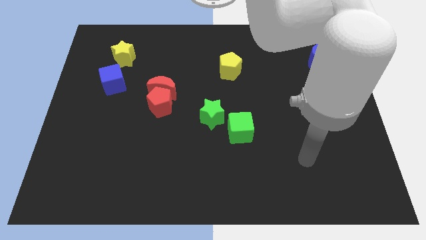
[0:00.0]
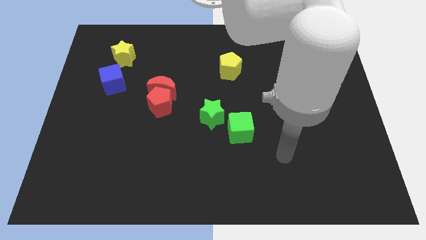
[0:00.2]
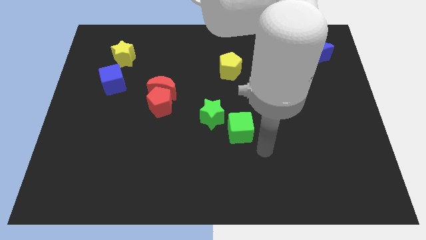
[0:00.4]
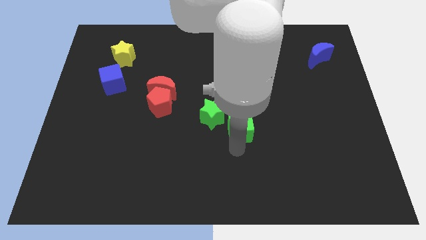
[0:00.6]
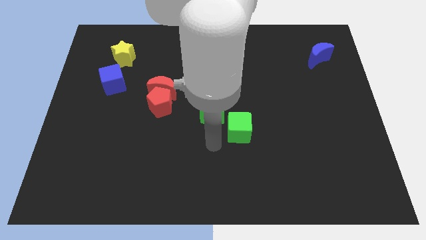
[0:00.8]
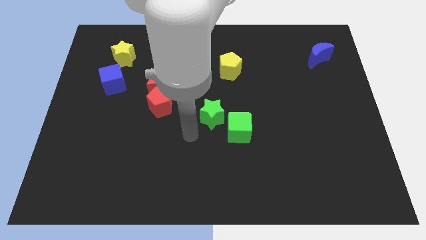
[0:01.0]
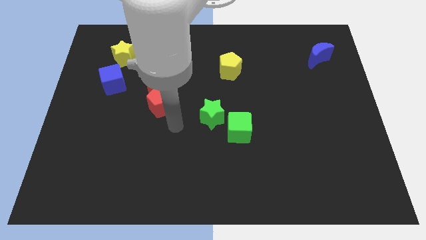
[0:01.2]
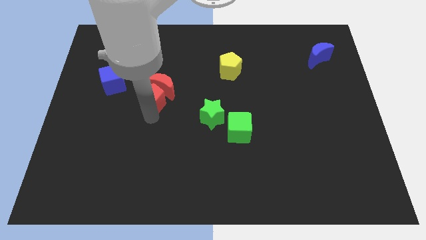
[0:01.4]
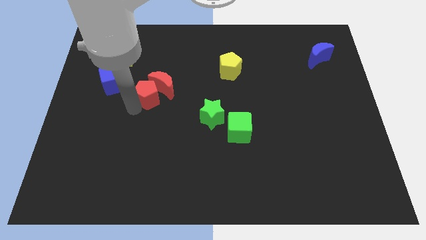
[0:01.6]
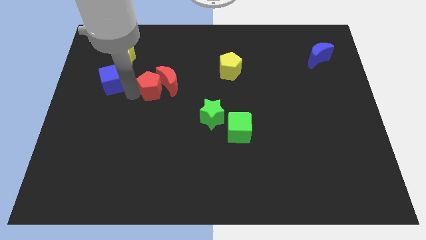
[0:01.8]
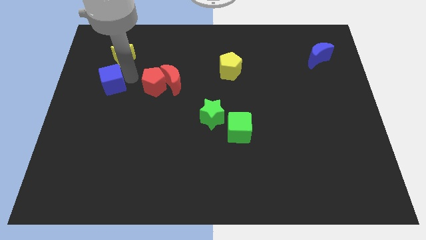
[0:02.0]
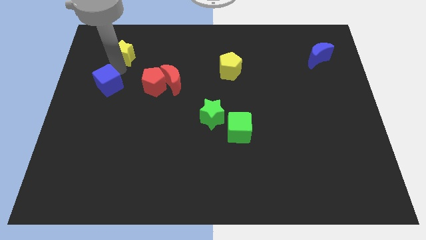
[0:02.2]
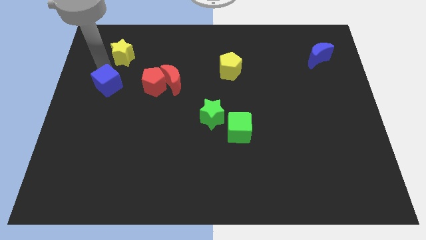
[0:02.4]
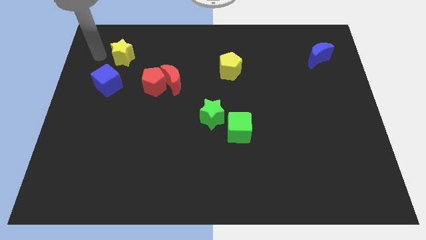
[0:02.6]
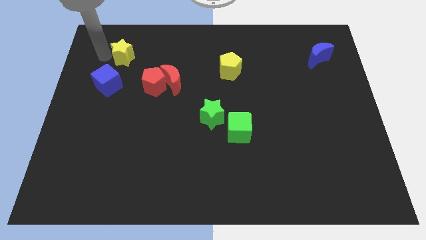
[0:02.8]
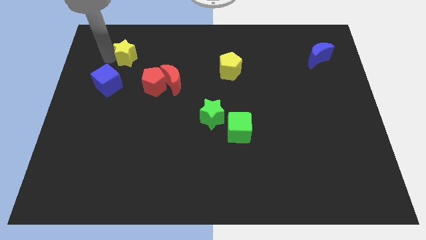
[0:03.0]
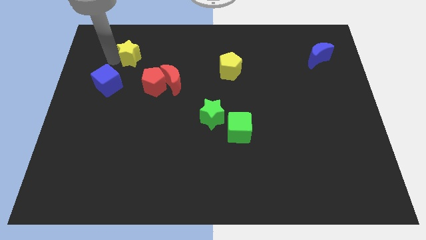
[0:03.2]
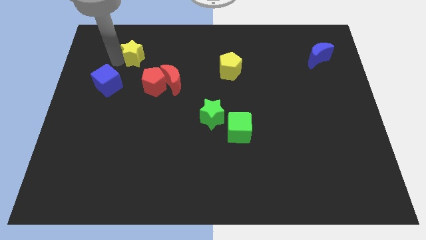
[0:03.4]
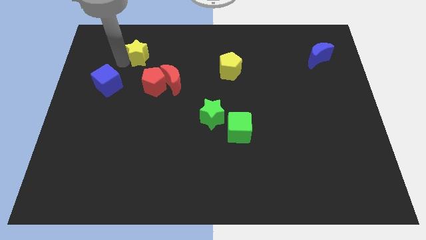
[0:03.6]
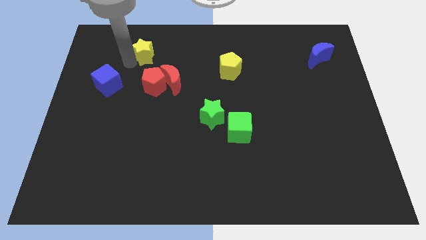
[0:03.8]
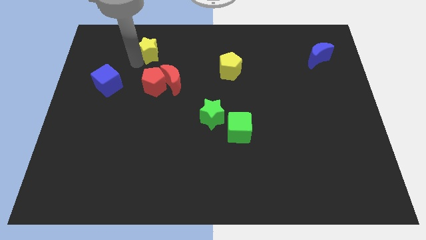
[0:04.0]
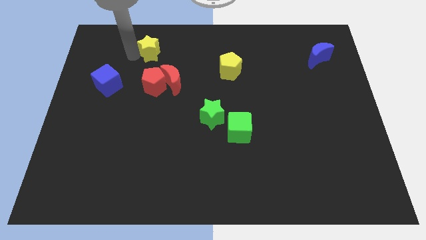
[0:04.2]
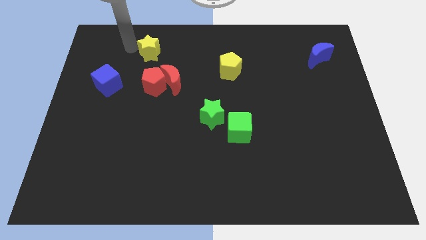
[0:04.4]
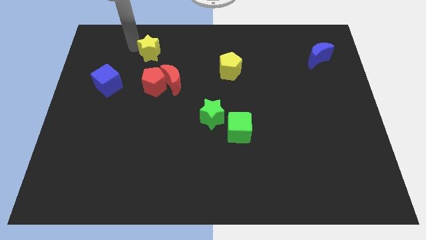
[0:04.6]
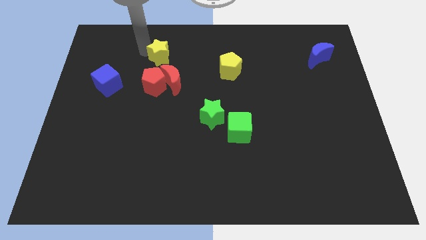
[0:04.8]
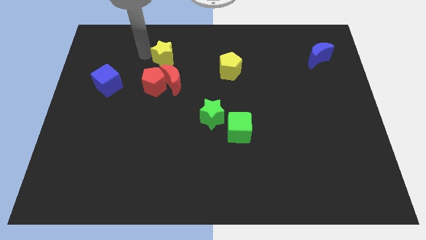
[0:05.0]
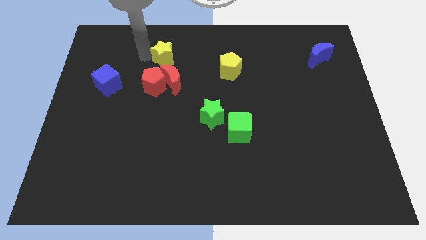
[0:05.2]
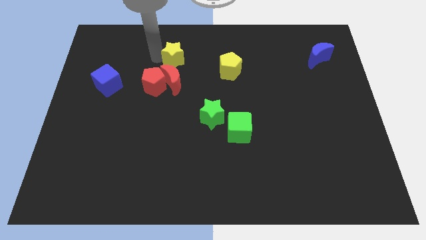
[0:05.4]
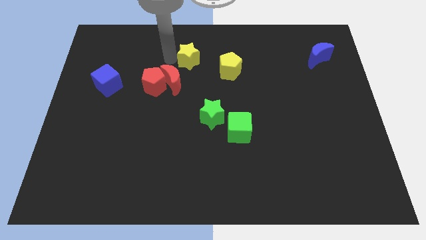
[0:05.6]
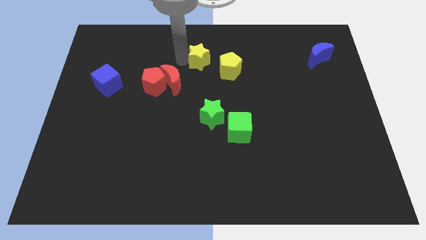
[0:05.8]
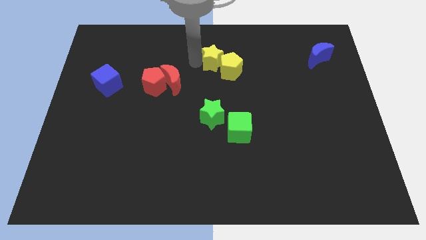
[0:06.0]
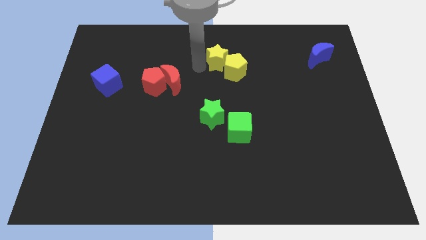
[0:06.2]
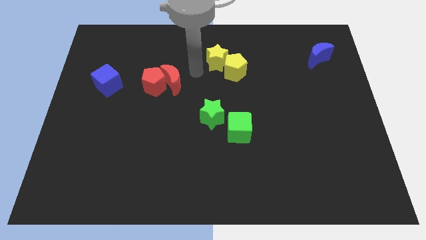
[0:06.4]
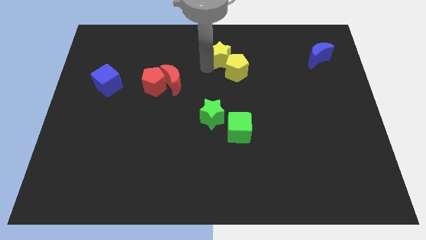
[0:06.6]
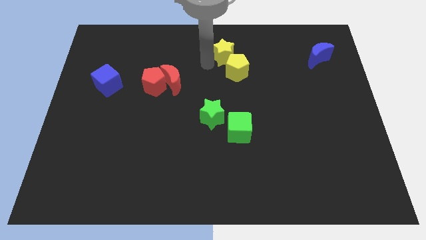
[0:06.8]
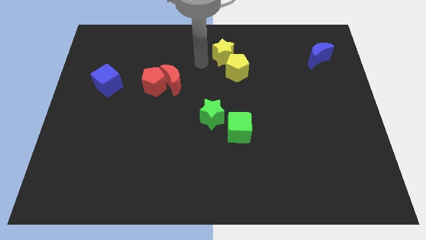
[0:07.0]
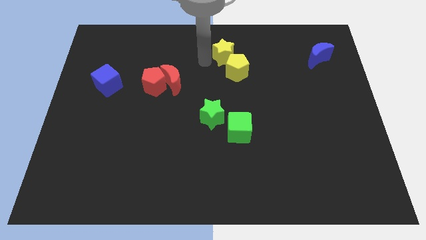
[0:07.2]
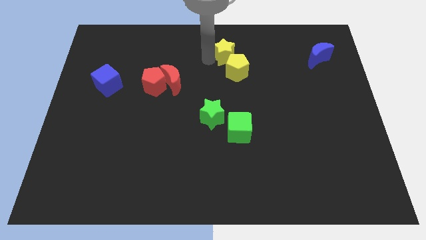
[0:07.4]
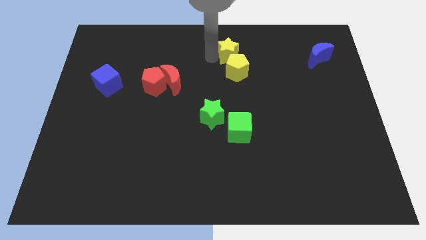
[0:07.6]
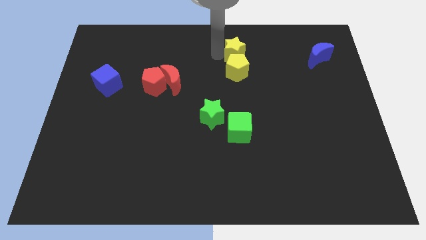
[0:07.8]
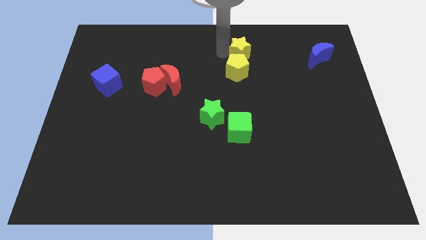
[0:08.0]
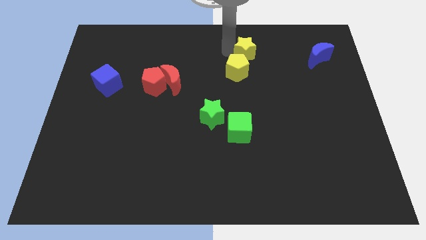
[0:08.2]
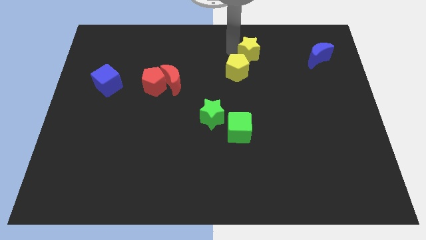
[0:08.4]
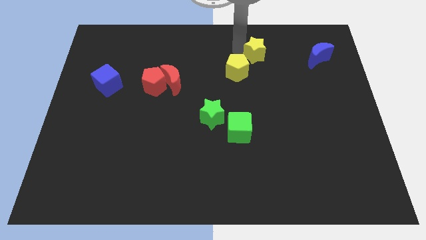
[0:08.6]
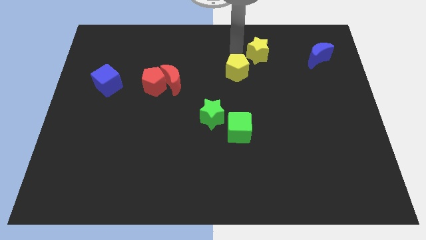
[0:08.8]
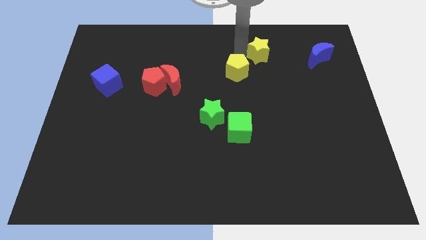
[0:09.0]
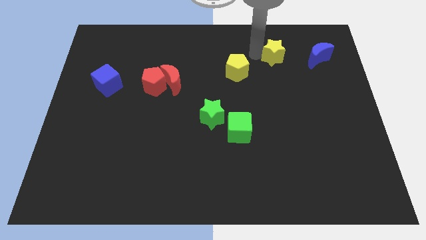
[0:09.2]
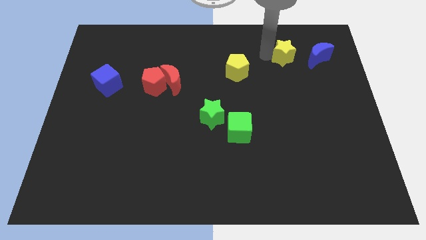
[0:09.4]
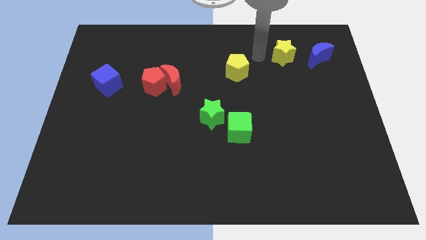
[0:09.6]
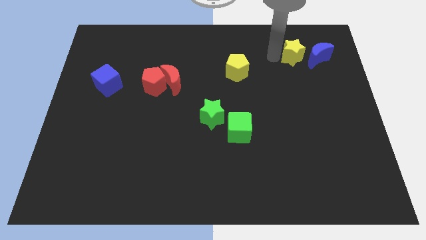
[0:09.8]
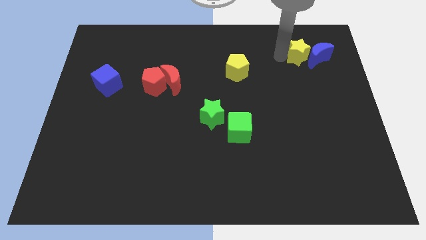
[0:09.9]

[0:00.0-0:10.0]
slide the yellow star towards the blue moon
